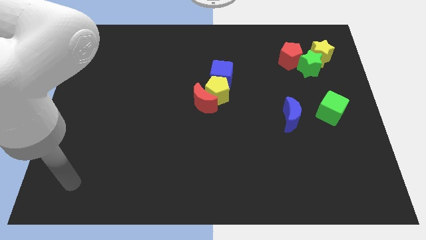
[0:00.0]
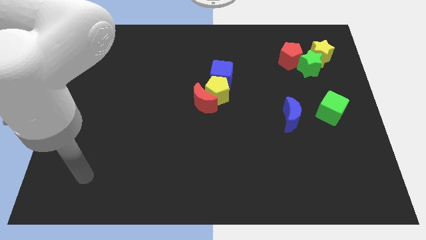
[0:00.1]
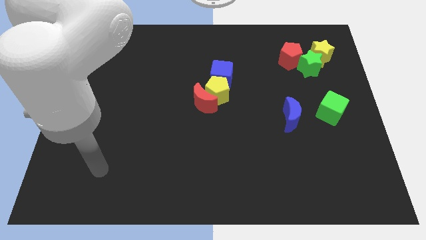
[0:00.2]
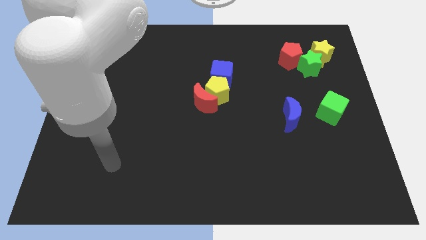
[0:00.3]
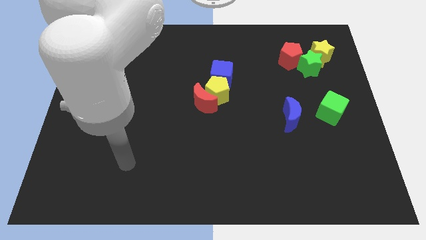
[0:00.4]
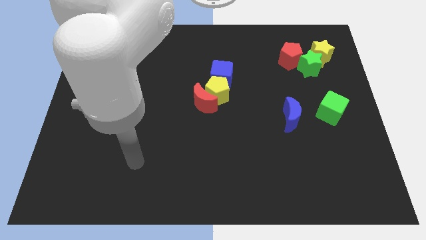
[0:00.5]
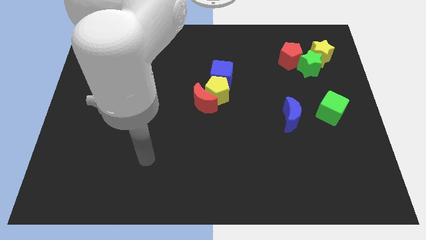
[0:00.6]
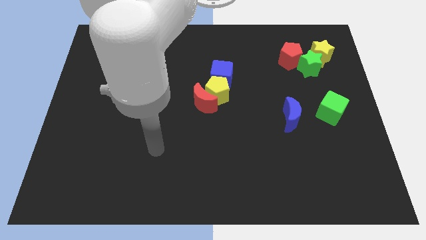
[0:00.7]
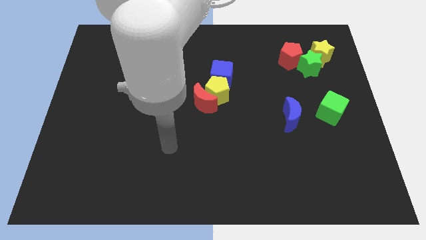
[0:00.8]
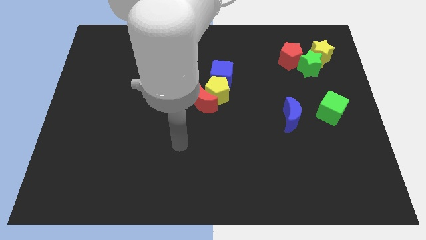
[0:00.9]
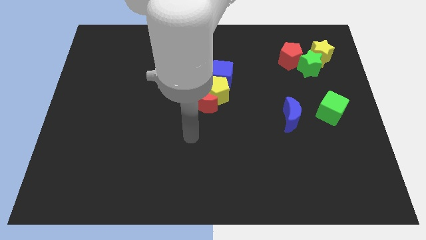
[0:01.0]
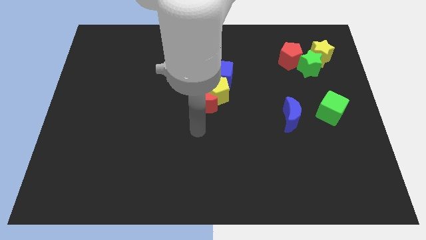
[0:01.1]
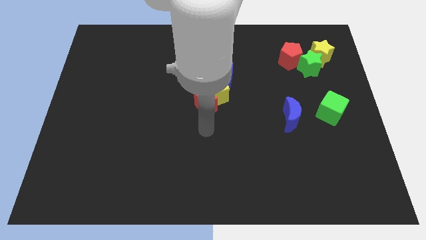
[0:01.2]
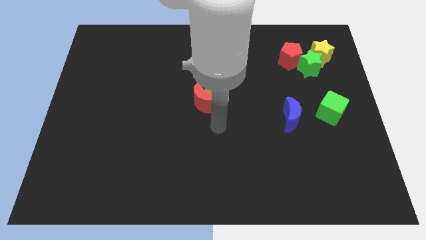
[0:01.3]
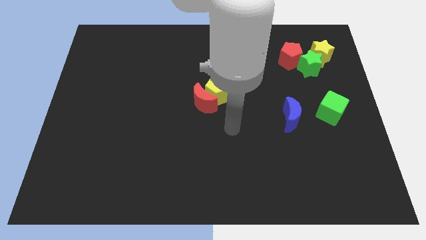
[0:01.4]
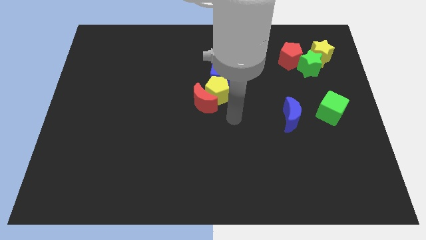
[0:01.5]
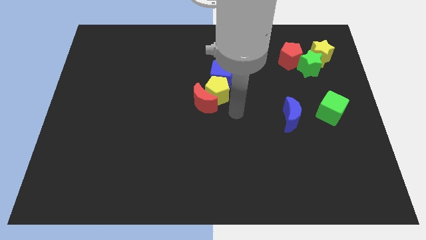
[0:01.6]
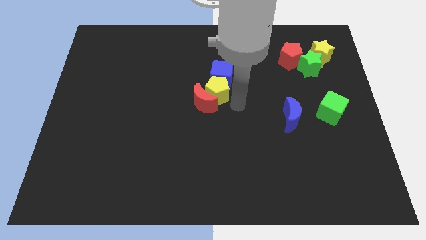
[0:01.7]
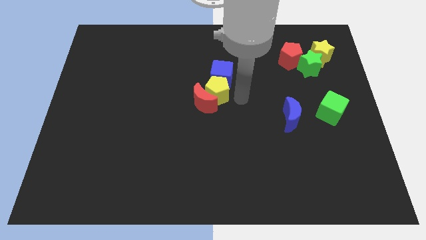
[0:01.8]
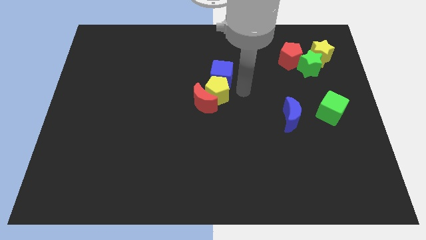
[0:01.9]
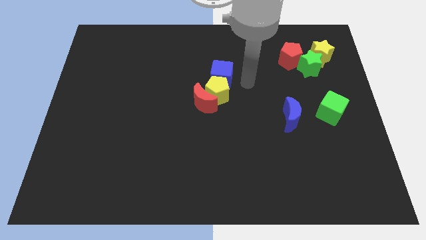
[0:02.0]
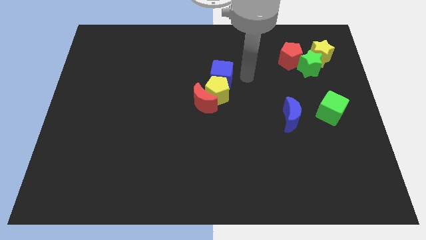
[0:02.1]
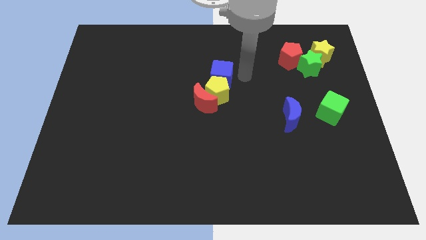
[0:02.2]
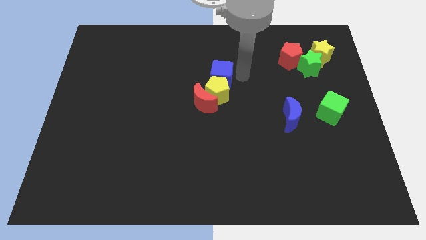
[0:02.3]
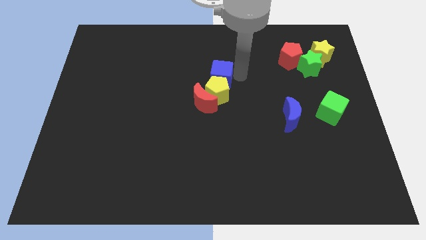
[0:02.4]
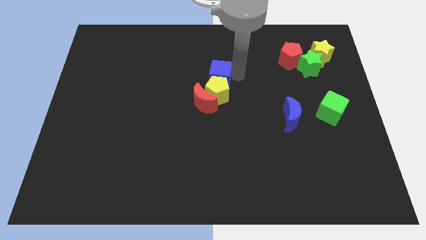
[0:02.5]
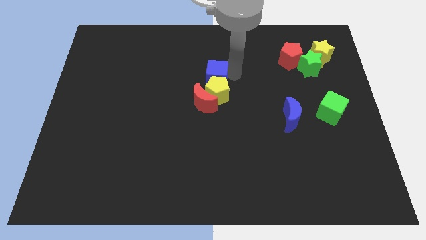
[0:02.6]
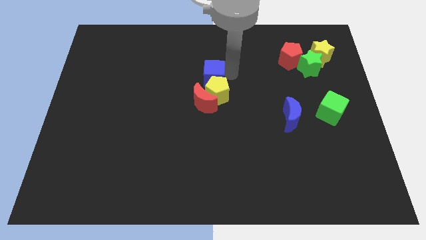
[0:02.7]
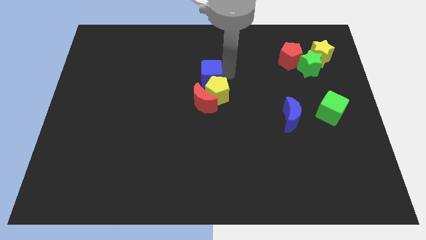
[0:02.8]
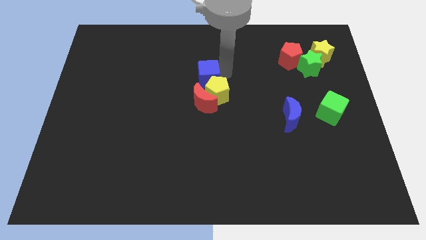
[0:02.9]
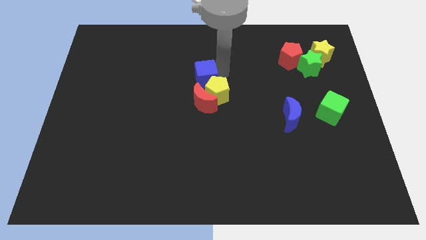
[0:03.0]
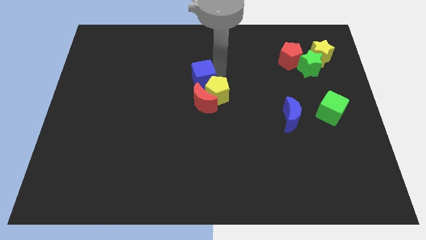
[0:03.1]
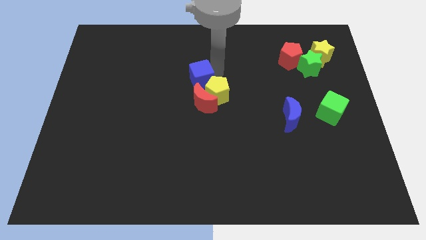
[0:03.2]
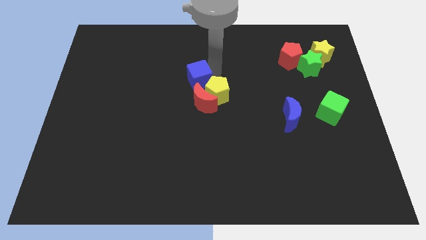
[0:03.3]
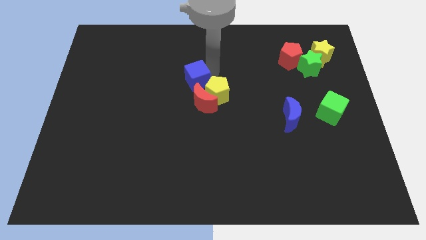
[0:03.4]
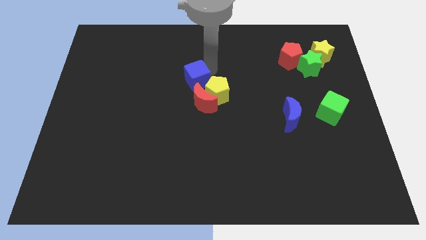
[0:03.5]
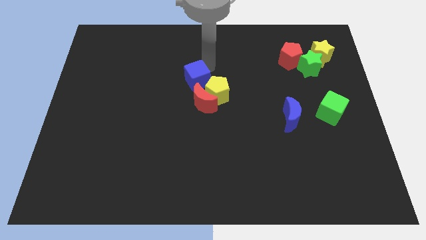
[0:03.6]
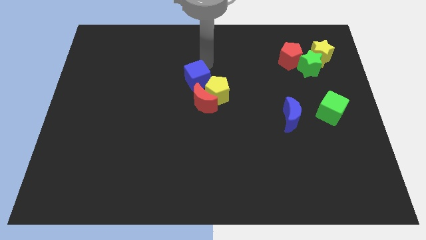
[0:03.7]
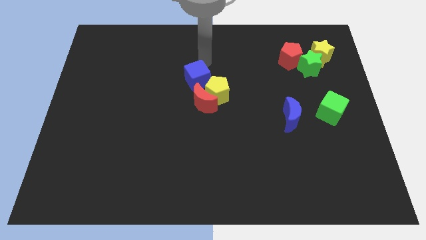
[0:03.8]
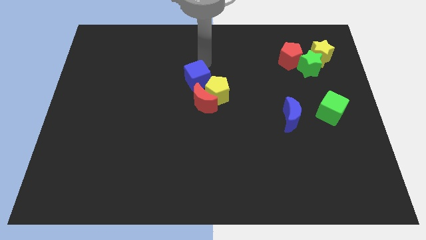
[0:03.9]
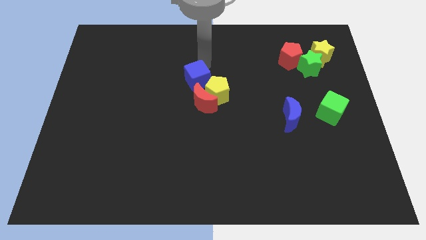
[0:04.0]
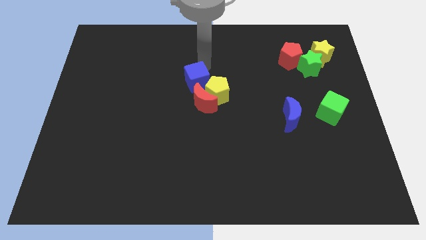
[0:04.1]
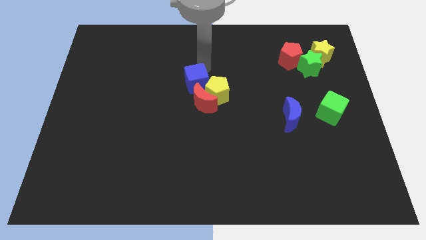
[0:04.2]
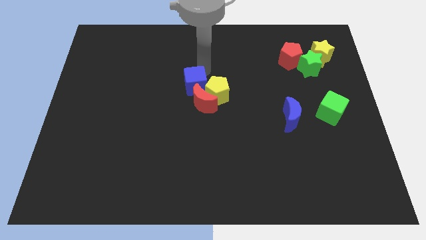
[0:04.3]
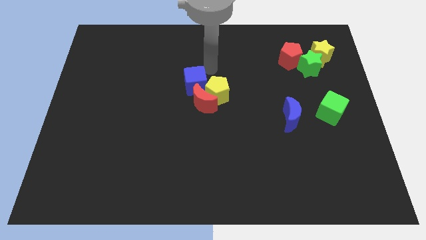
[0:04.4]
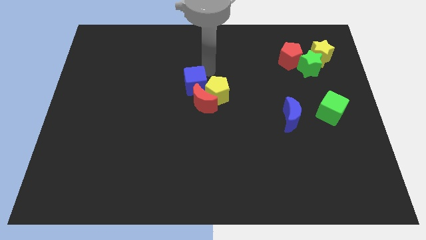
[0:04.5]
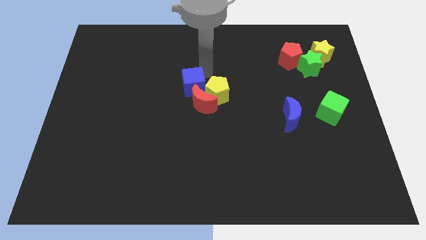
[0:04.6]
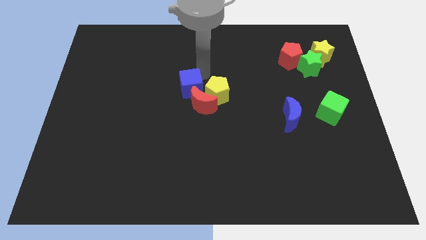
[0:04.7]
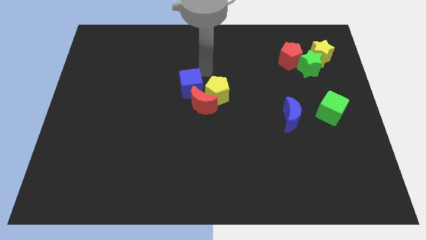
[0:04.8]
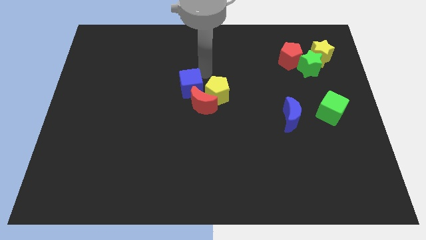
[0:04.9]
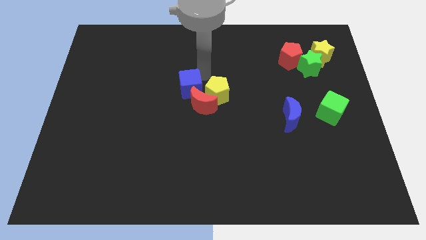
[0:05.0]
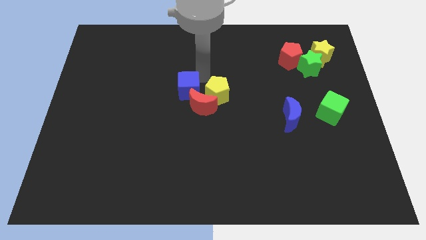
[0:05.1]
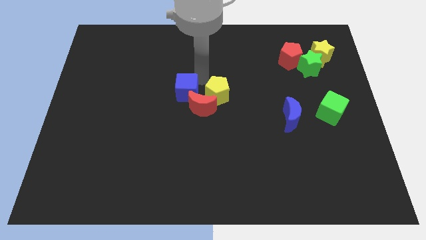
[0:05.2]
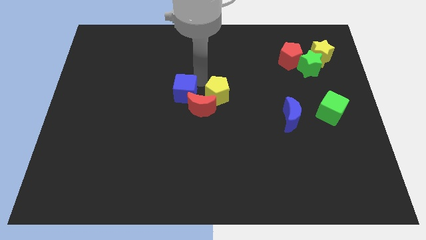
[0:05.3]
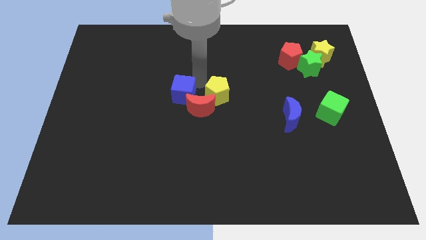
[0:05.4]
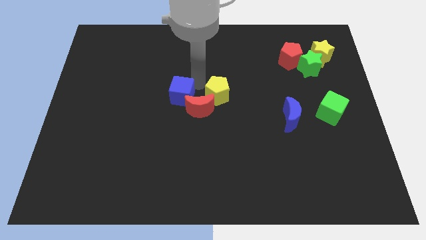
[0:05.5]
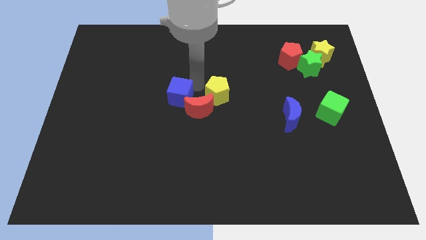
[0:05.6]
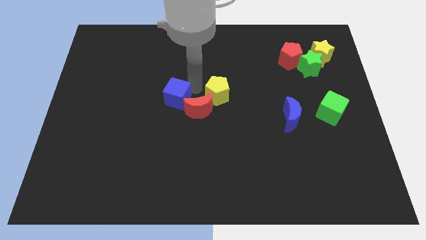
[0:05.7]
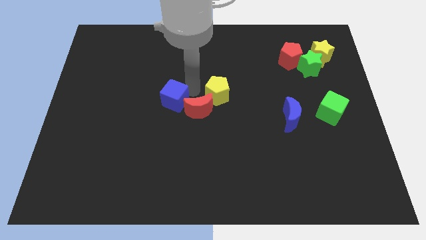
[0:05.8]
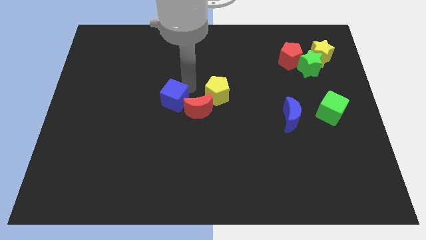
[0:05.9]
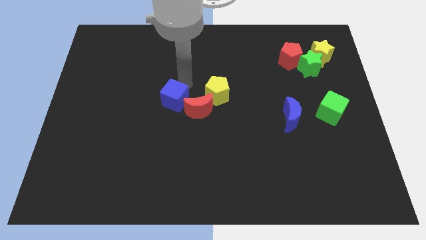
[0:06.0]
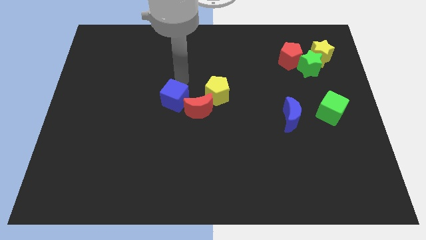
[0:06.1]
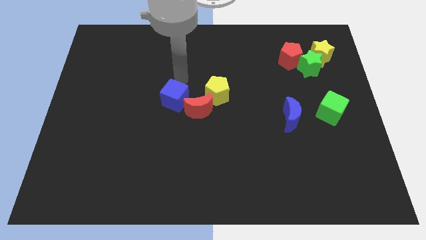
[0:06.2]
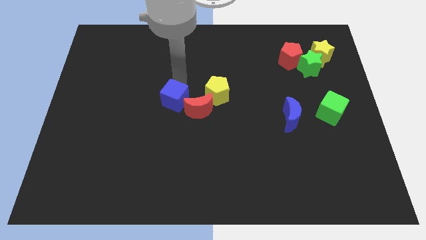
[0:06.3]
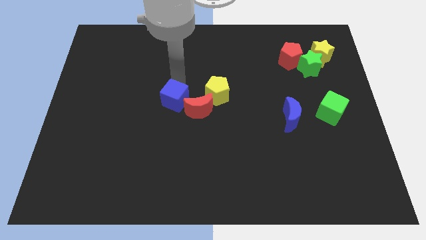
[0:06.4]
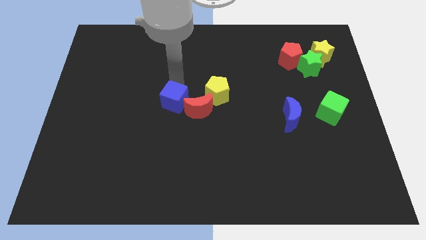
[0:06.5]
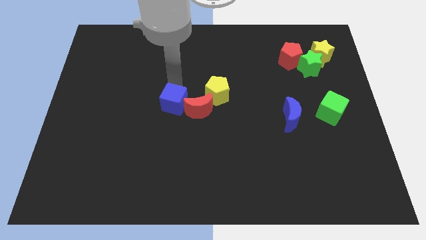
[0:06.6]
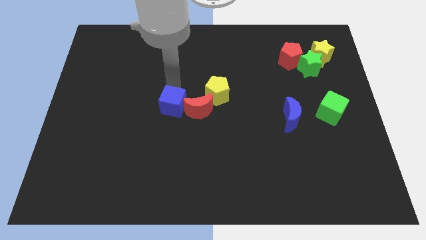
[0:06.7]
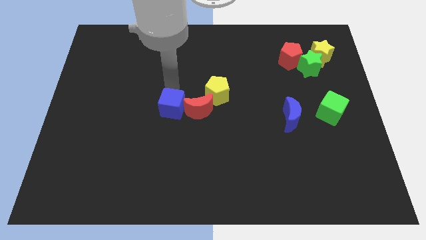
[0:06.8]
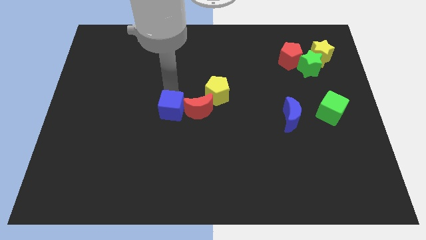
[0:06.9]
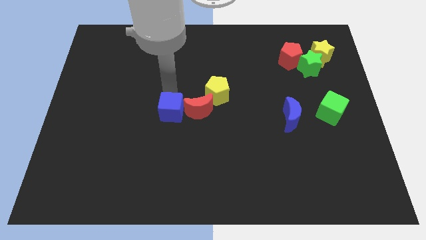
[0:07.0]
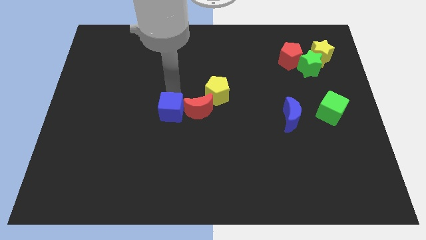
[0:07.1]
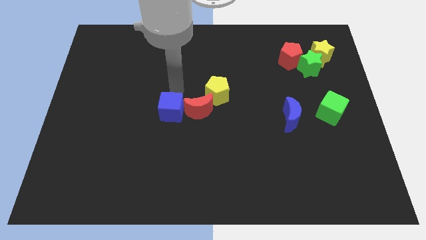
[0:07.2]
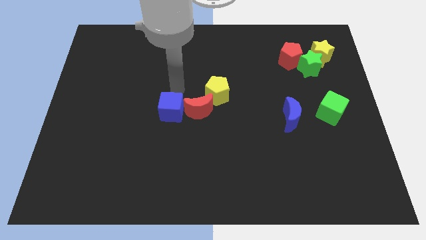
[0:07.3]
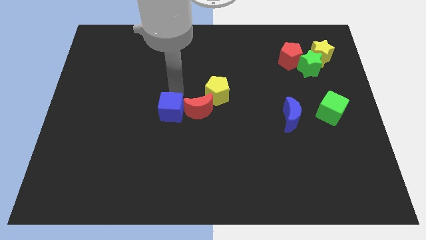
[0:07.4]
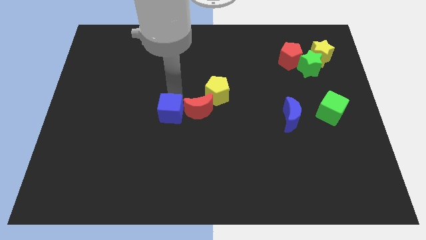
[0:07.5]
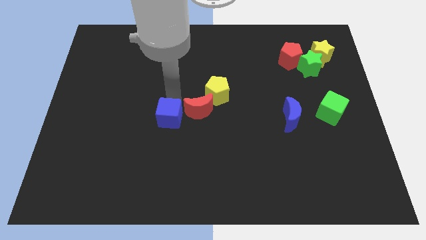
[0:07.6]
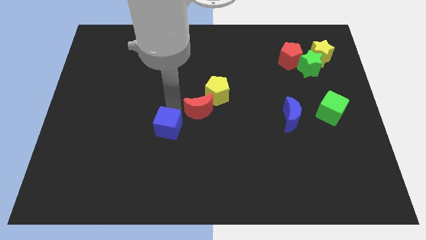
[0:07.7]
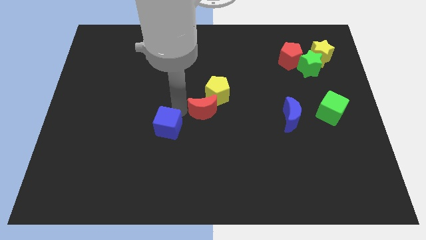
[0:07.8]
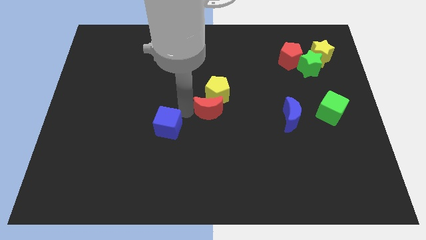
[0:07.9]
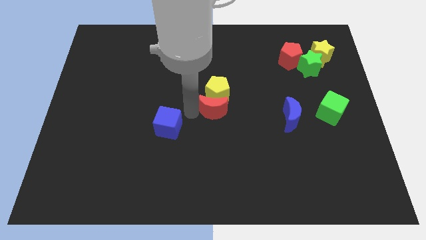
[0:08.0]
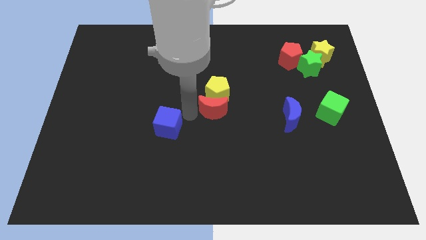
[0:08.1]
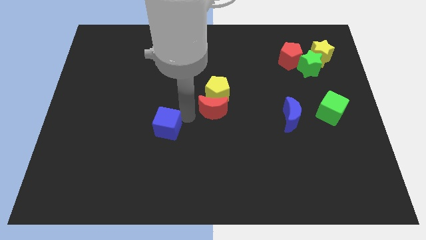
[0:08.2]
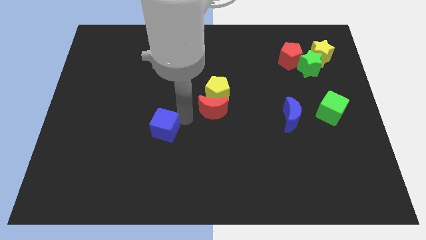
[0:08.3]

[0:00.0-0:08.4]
slide the blue cube diagonally downwards and left
